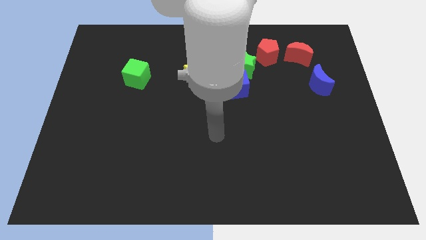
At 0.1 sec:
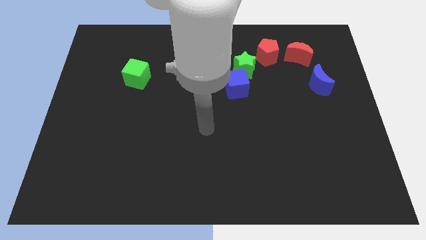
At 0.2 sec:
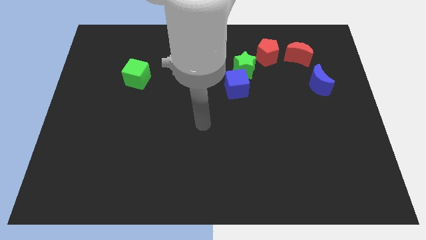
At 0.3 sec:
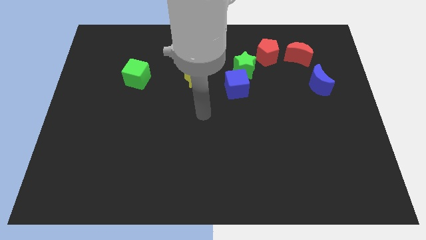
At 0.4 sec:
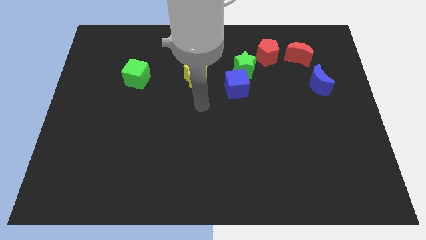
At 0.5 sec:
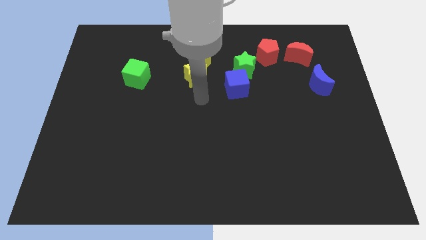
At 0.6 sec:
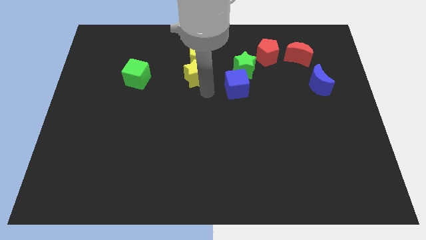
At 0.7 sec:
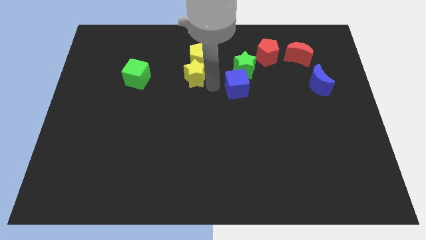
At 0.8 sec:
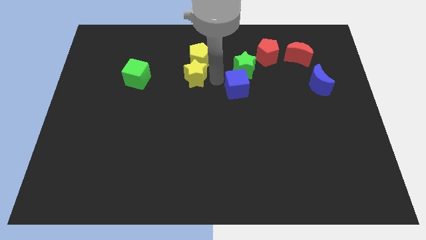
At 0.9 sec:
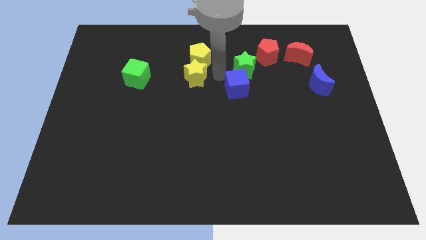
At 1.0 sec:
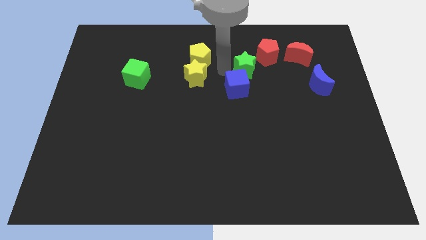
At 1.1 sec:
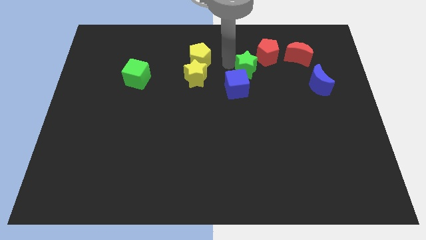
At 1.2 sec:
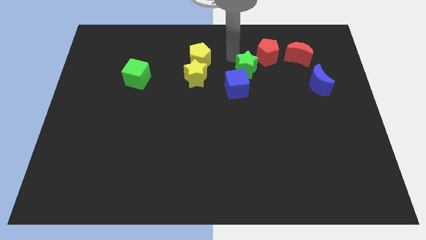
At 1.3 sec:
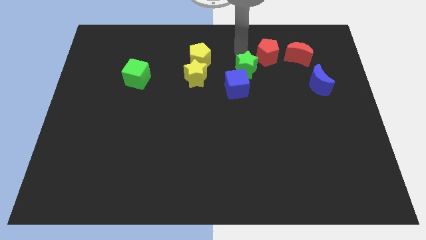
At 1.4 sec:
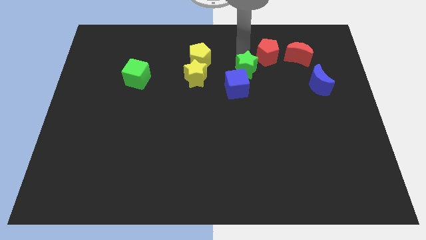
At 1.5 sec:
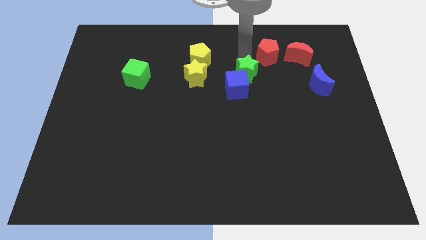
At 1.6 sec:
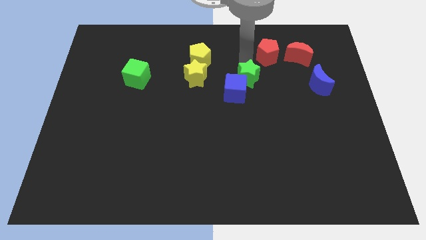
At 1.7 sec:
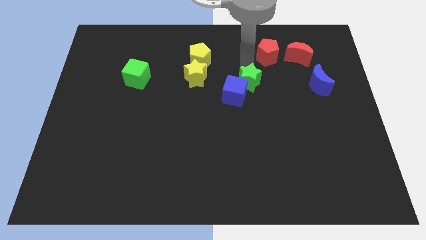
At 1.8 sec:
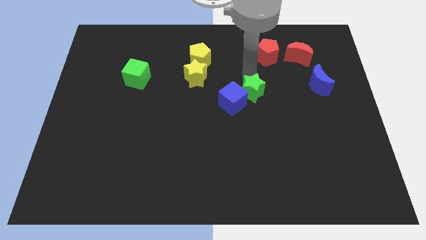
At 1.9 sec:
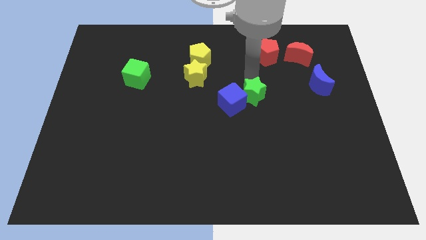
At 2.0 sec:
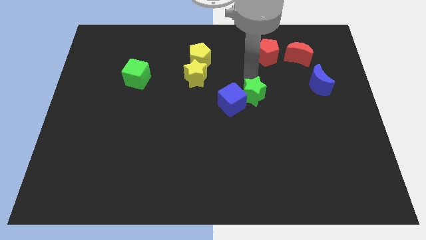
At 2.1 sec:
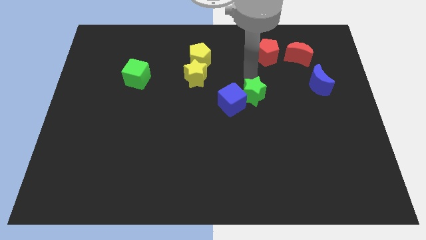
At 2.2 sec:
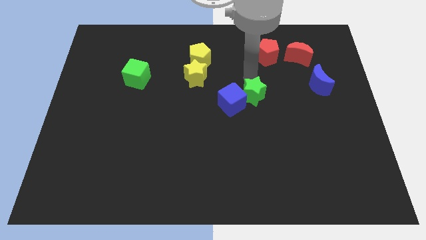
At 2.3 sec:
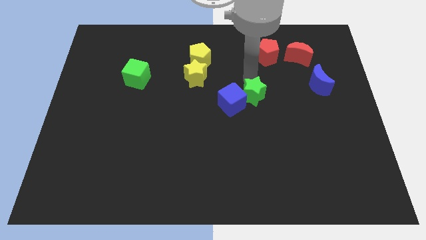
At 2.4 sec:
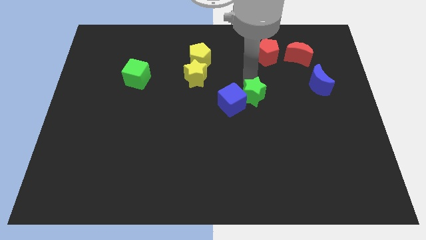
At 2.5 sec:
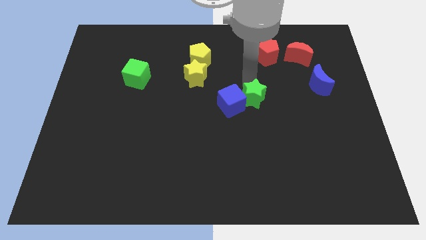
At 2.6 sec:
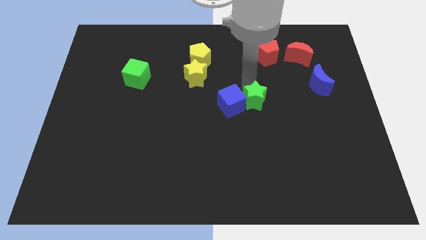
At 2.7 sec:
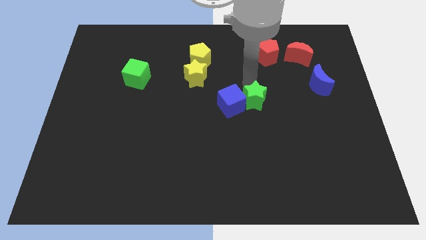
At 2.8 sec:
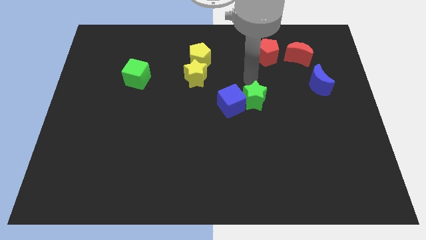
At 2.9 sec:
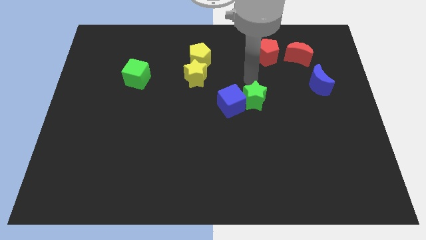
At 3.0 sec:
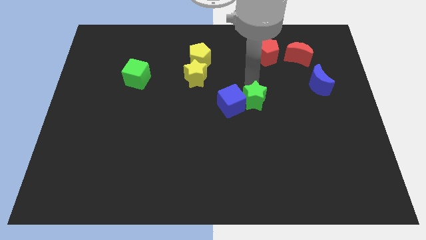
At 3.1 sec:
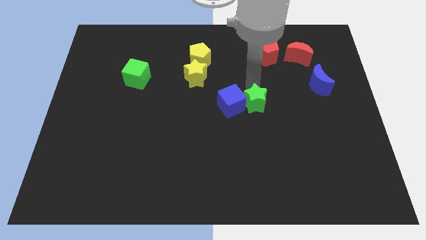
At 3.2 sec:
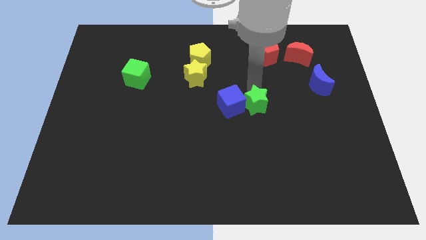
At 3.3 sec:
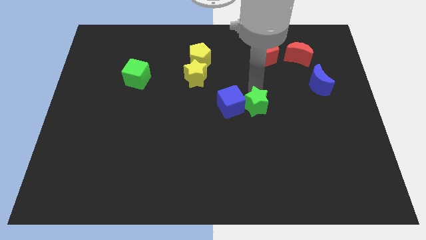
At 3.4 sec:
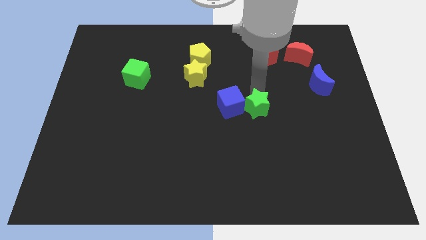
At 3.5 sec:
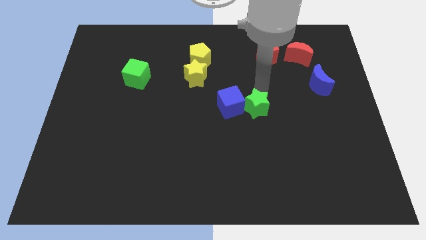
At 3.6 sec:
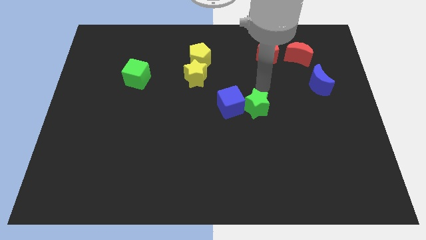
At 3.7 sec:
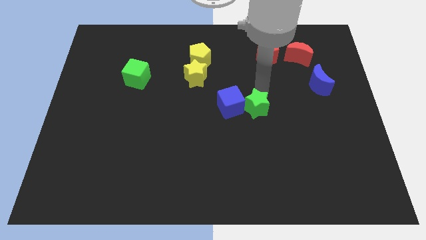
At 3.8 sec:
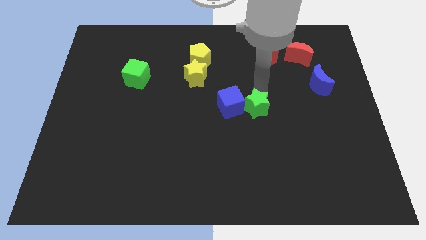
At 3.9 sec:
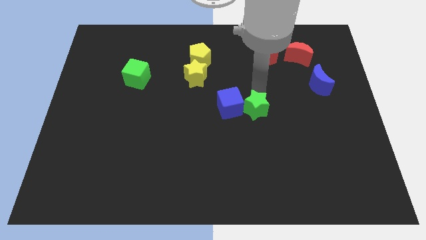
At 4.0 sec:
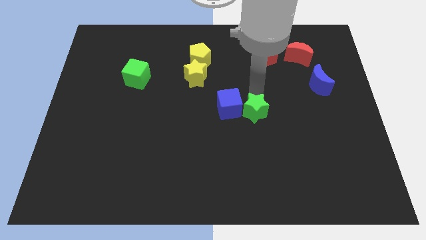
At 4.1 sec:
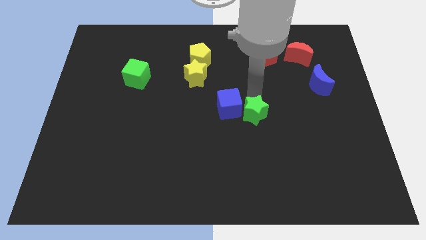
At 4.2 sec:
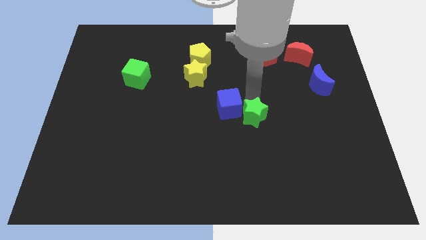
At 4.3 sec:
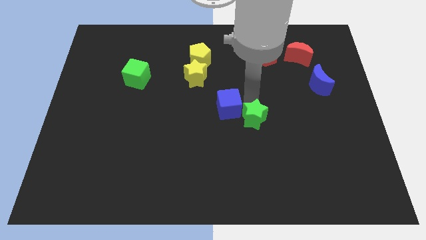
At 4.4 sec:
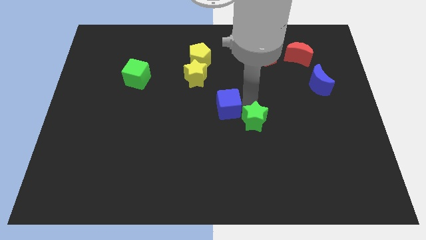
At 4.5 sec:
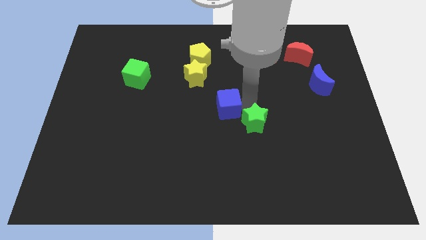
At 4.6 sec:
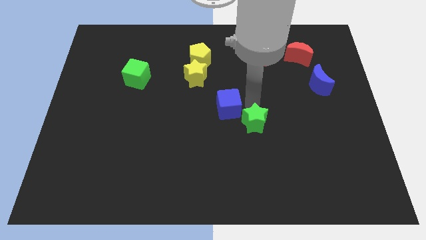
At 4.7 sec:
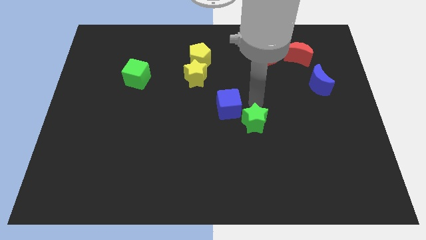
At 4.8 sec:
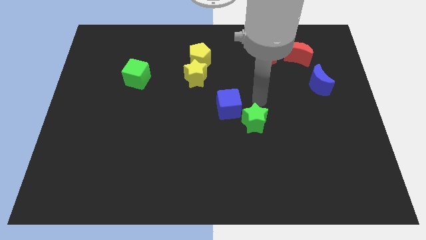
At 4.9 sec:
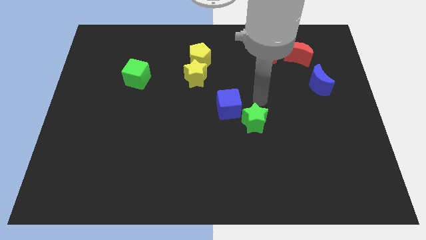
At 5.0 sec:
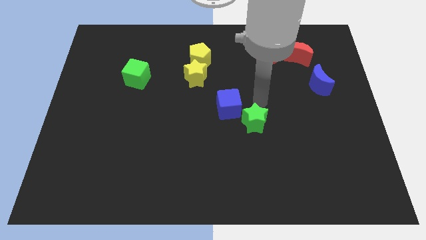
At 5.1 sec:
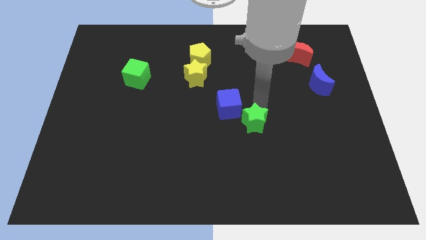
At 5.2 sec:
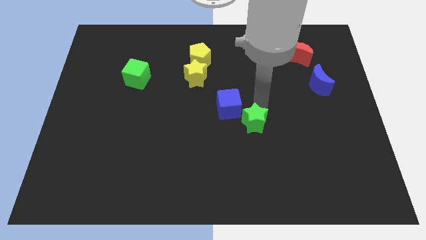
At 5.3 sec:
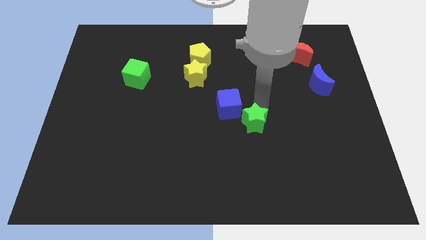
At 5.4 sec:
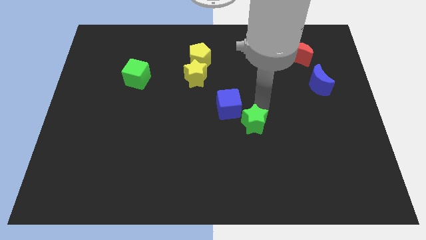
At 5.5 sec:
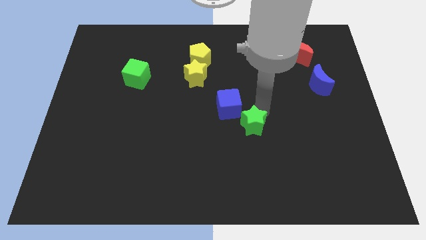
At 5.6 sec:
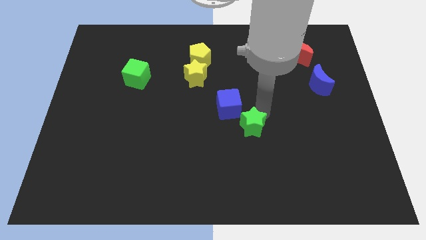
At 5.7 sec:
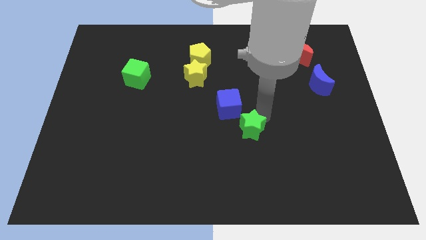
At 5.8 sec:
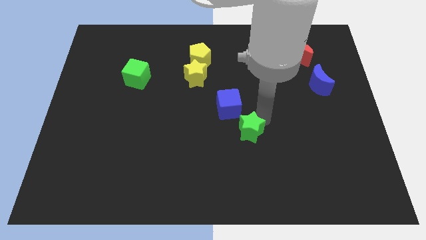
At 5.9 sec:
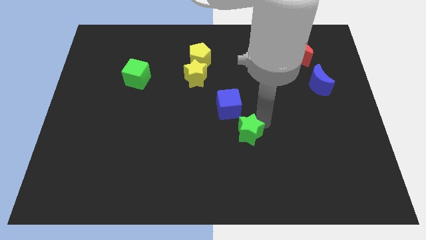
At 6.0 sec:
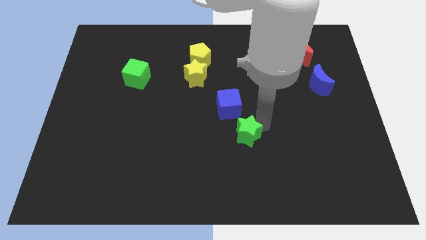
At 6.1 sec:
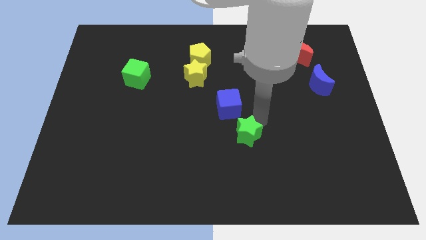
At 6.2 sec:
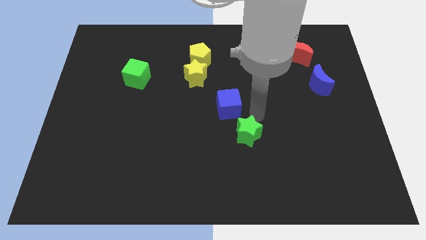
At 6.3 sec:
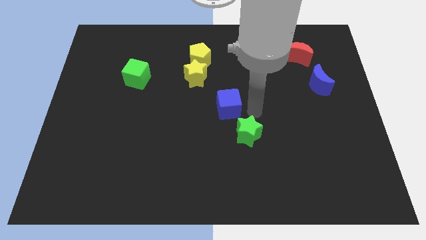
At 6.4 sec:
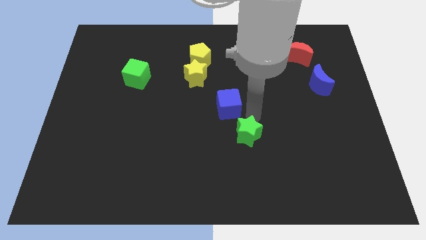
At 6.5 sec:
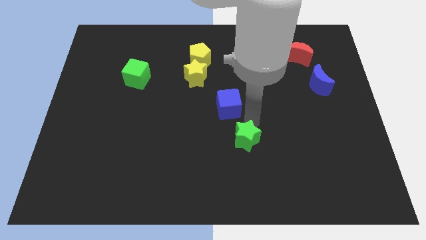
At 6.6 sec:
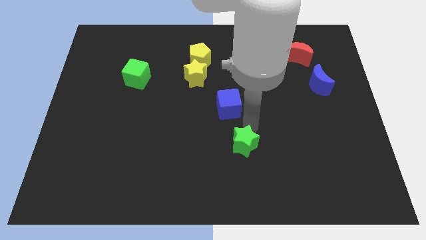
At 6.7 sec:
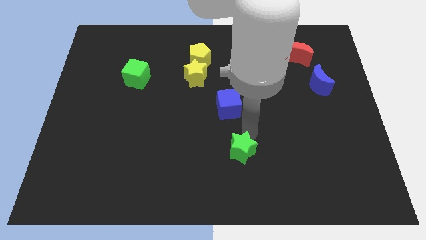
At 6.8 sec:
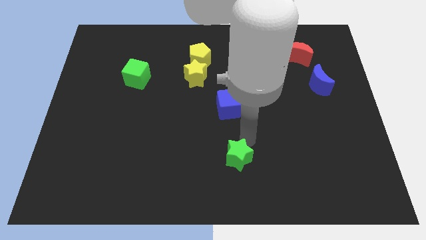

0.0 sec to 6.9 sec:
push the green star to the bottom side
